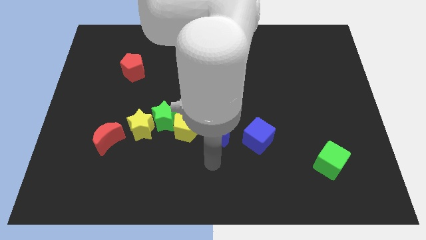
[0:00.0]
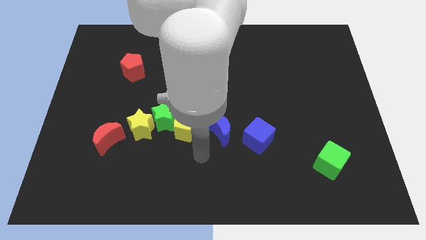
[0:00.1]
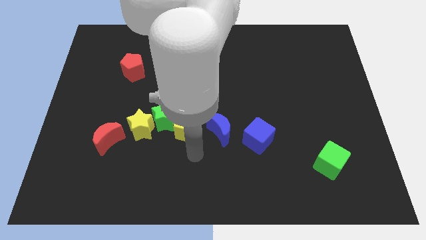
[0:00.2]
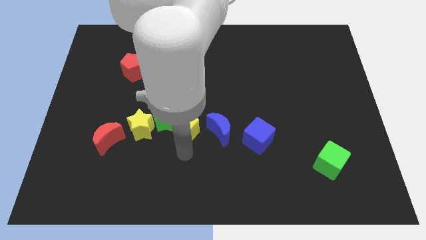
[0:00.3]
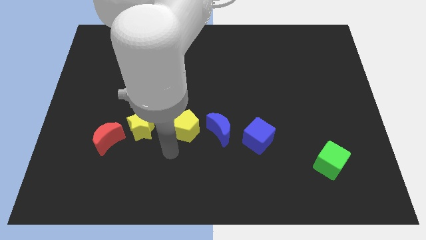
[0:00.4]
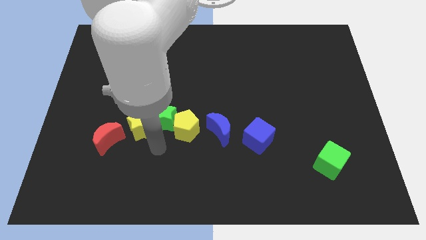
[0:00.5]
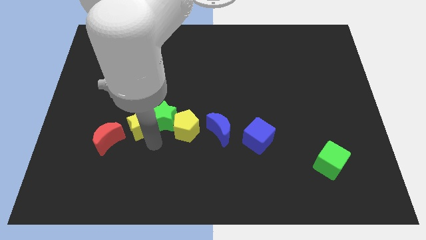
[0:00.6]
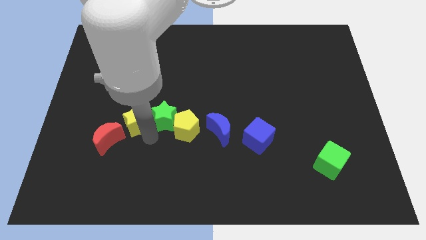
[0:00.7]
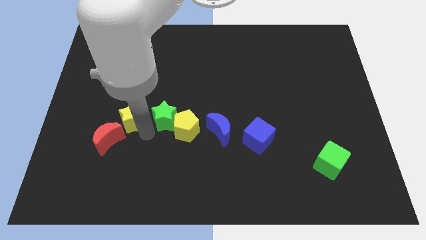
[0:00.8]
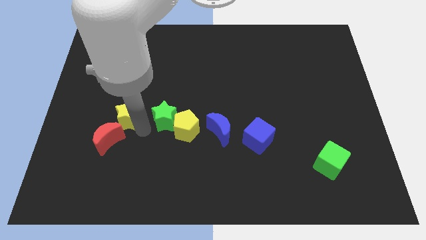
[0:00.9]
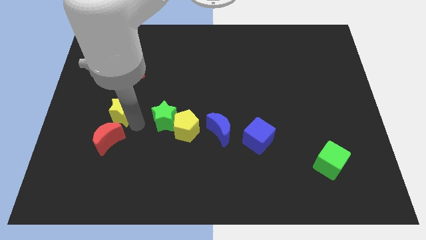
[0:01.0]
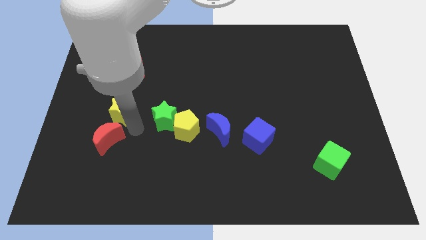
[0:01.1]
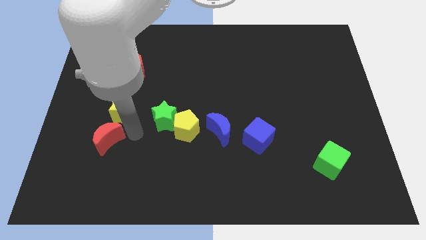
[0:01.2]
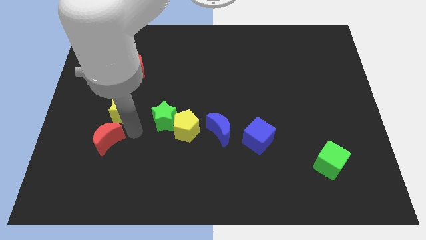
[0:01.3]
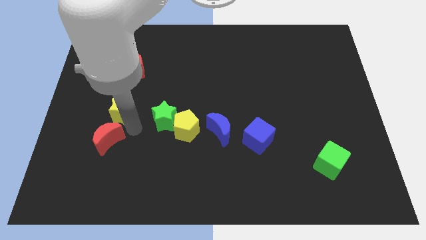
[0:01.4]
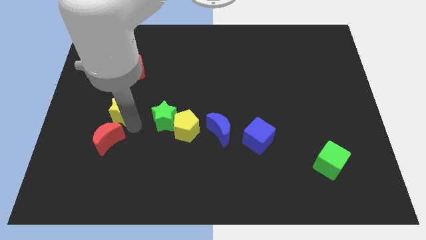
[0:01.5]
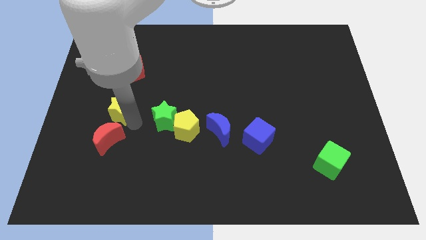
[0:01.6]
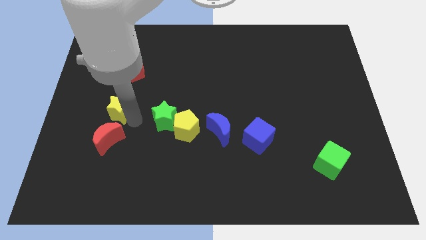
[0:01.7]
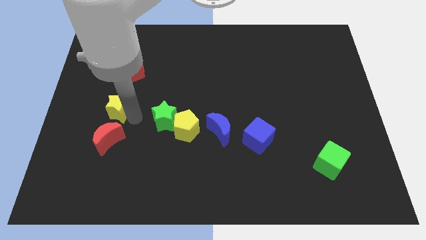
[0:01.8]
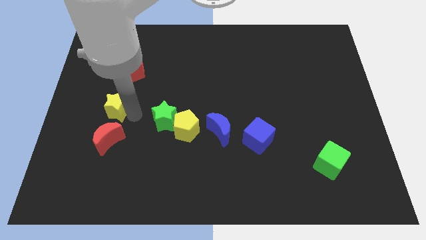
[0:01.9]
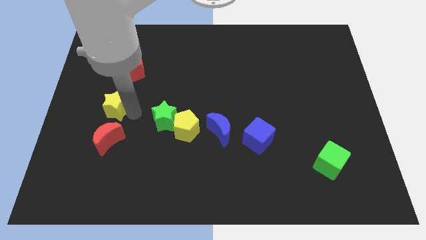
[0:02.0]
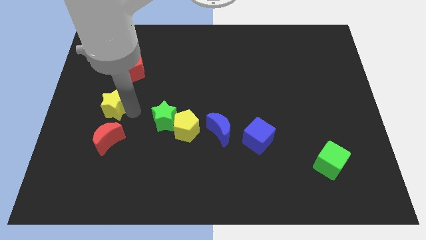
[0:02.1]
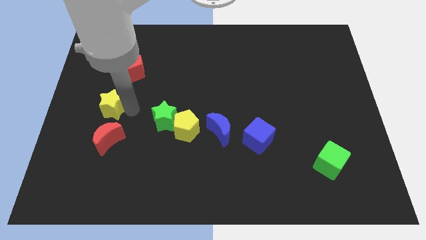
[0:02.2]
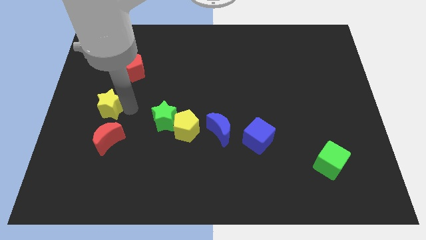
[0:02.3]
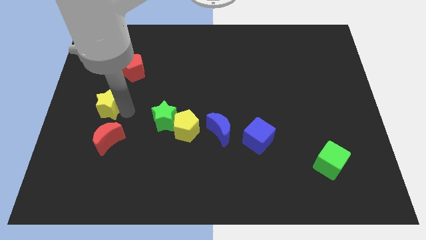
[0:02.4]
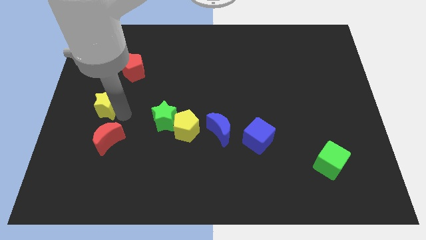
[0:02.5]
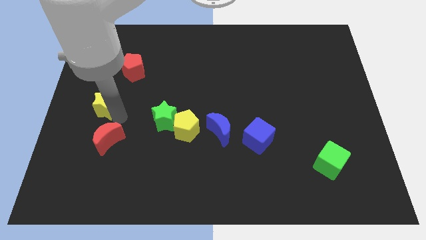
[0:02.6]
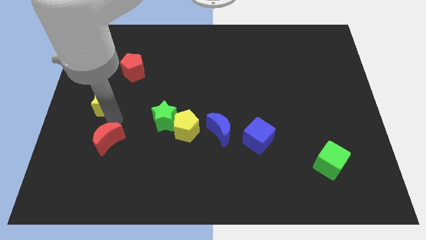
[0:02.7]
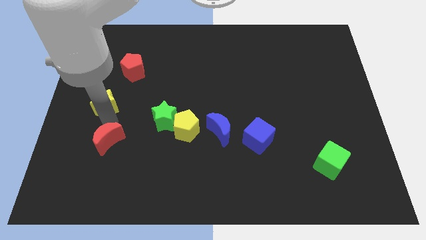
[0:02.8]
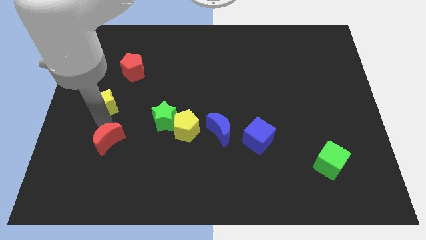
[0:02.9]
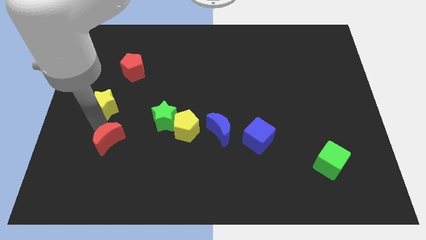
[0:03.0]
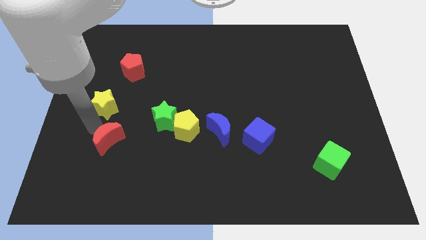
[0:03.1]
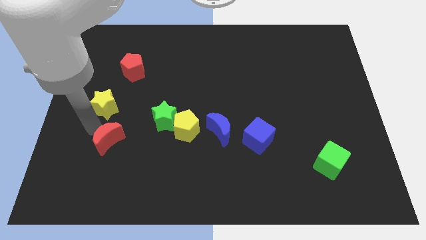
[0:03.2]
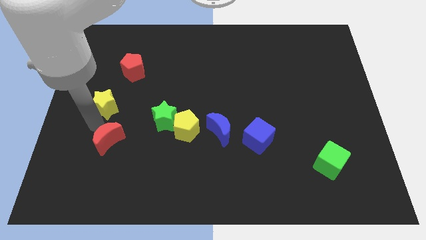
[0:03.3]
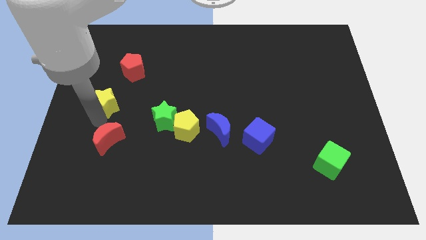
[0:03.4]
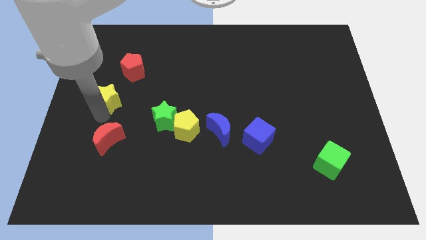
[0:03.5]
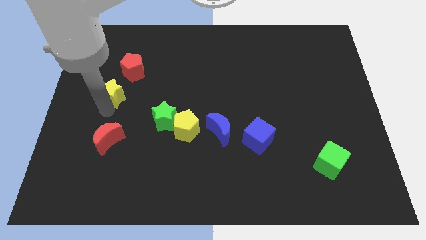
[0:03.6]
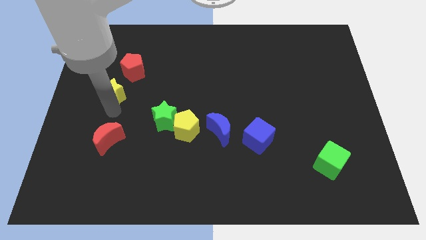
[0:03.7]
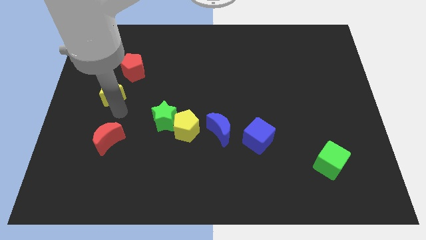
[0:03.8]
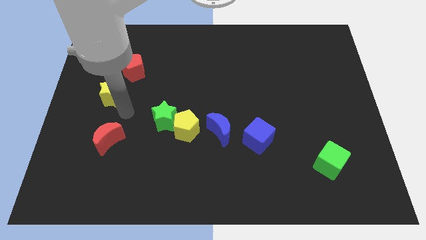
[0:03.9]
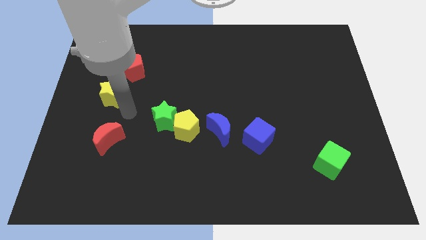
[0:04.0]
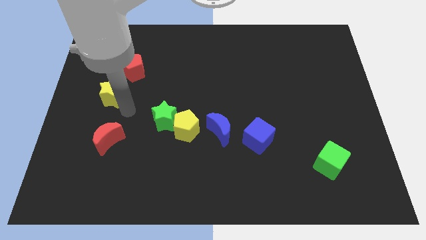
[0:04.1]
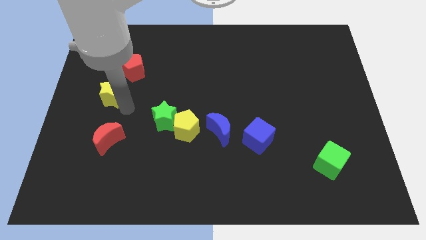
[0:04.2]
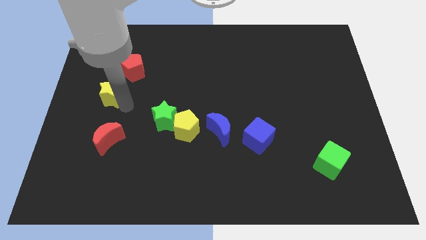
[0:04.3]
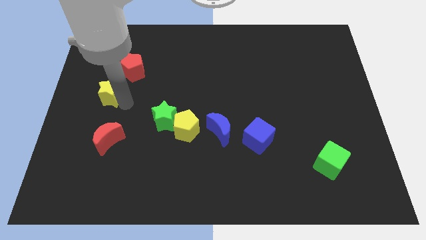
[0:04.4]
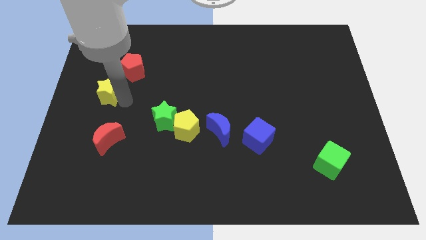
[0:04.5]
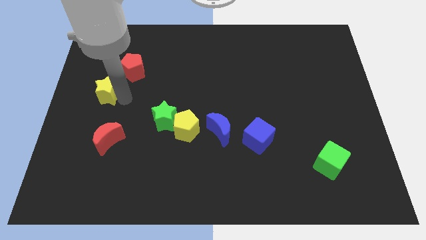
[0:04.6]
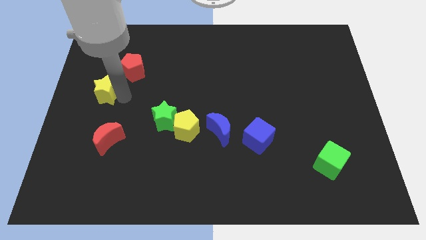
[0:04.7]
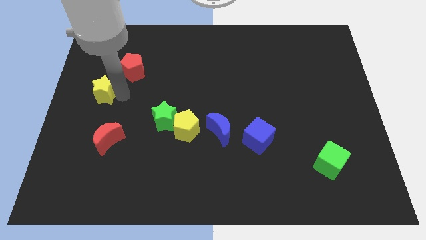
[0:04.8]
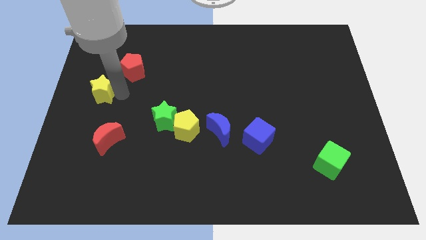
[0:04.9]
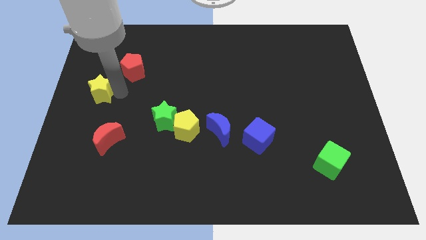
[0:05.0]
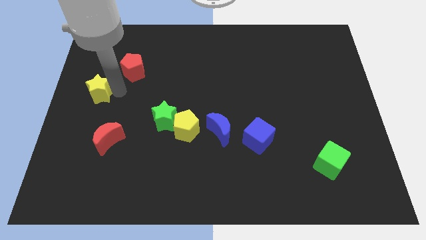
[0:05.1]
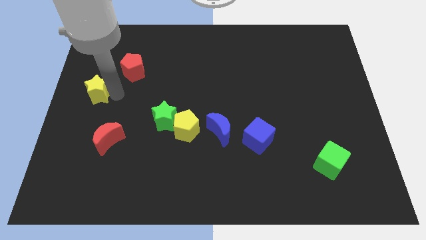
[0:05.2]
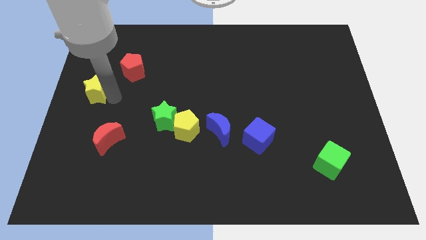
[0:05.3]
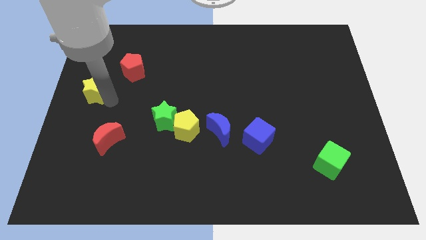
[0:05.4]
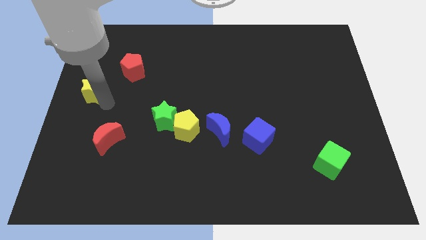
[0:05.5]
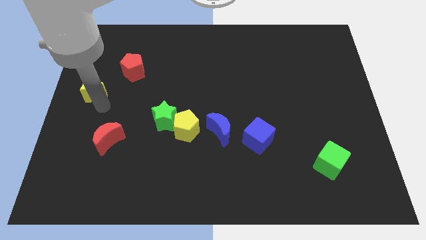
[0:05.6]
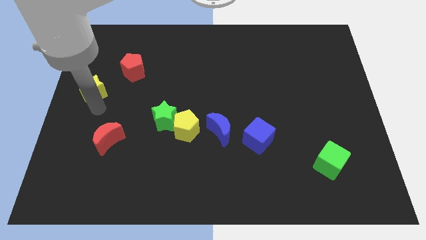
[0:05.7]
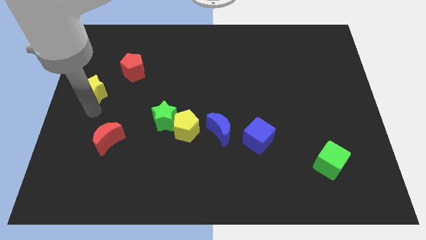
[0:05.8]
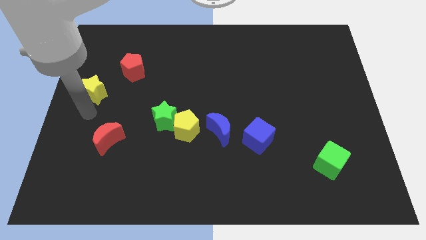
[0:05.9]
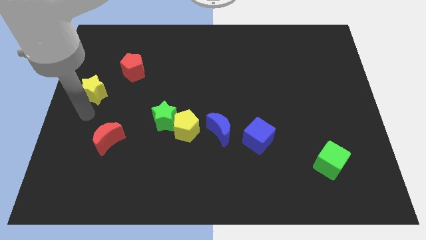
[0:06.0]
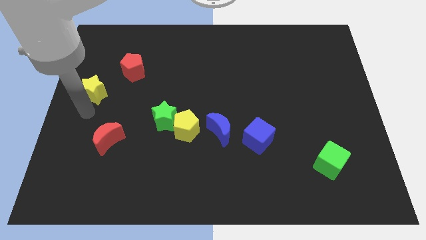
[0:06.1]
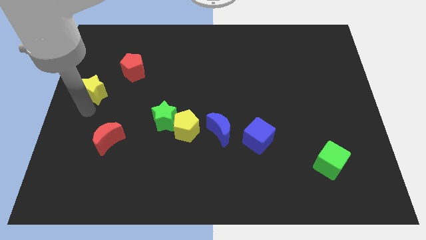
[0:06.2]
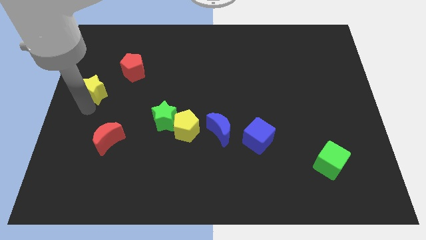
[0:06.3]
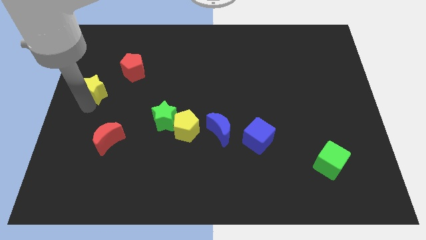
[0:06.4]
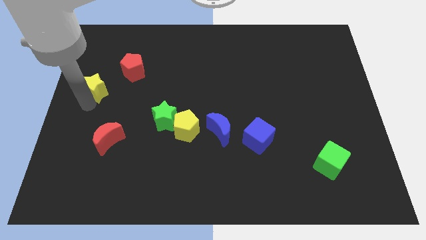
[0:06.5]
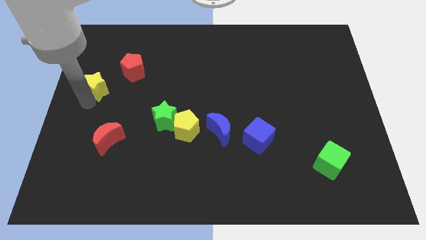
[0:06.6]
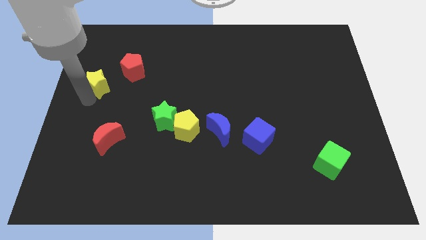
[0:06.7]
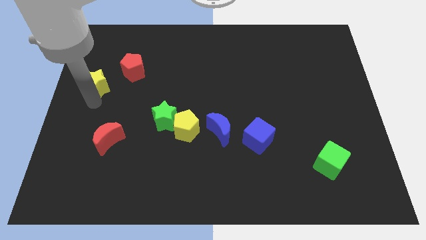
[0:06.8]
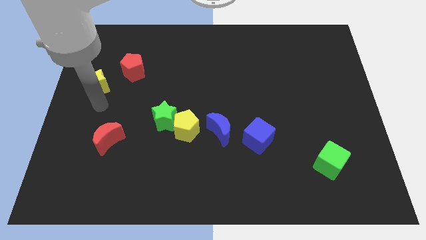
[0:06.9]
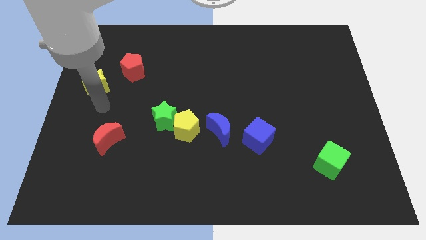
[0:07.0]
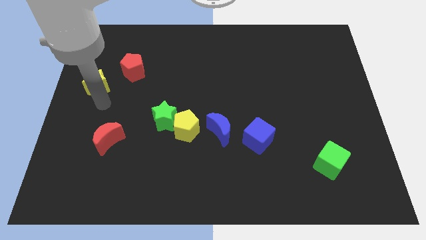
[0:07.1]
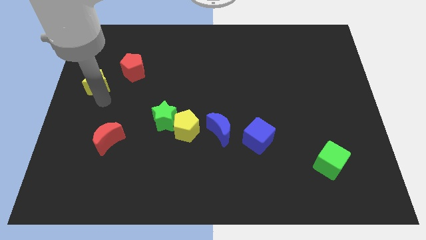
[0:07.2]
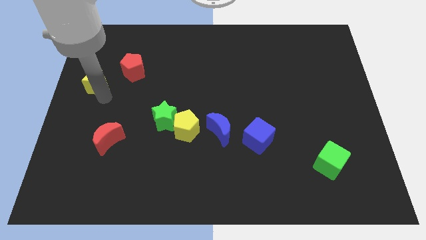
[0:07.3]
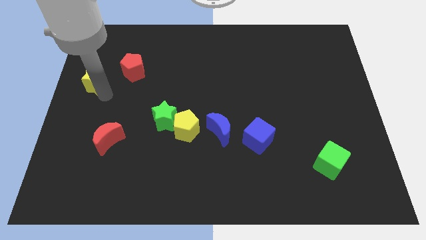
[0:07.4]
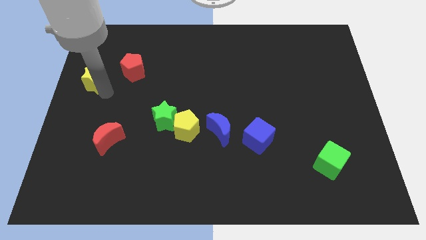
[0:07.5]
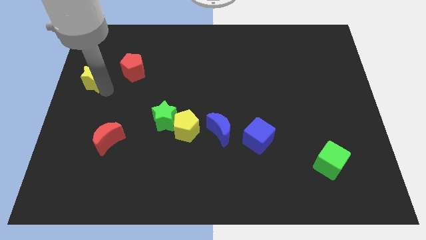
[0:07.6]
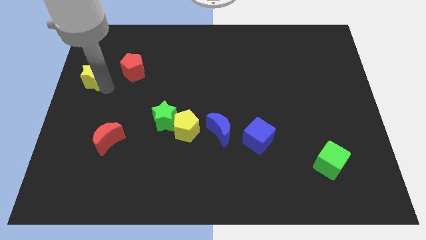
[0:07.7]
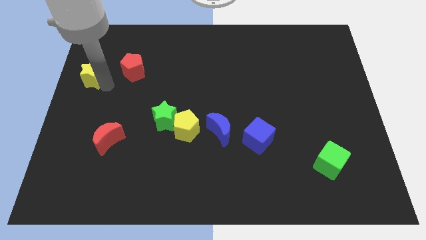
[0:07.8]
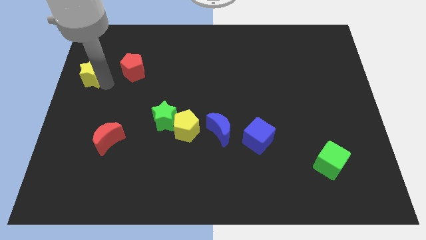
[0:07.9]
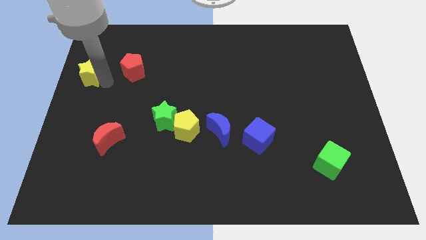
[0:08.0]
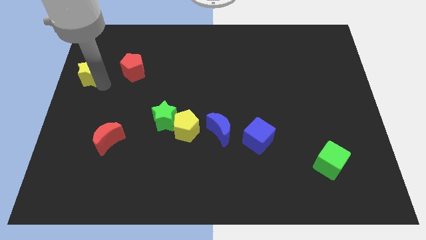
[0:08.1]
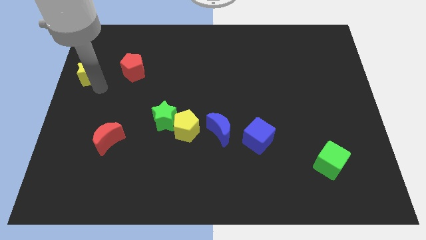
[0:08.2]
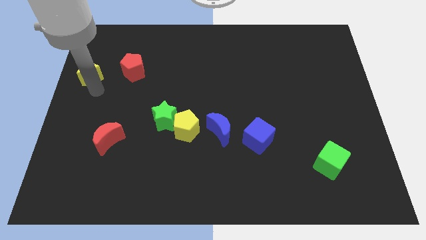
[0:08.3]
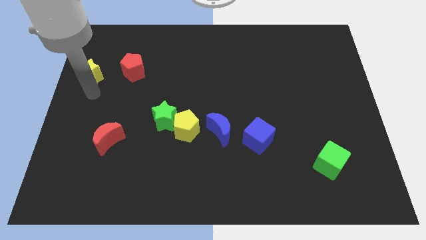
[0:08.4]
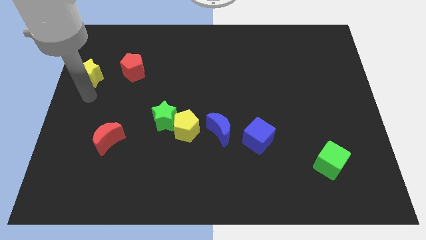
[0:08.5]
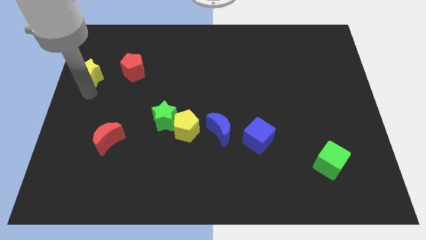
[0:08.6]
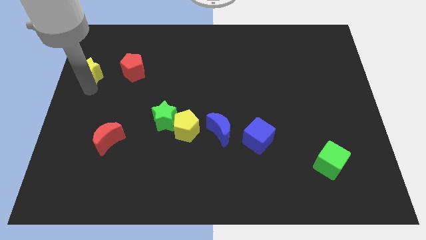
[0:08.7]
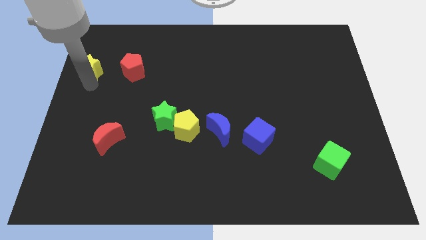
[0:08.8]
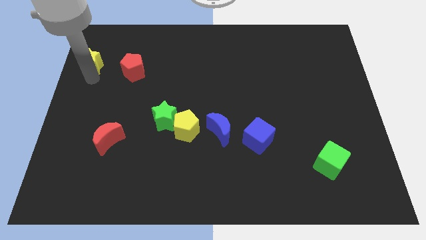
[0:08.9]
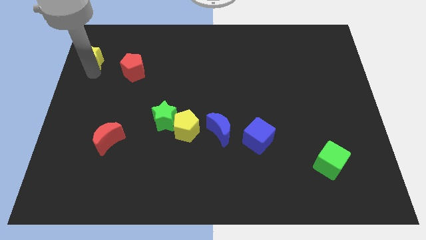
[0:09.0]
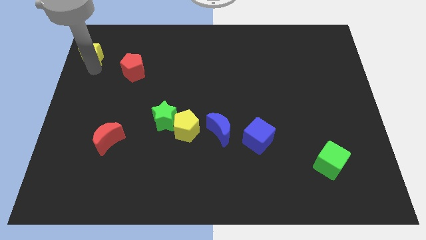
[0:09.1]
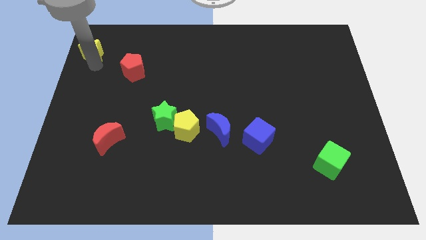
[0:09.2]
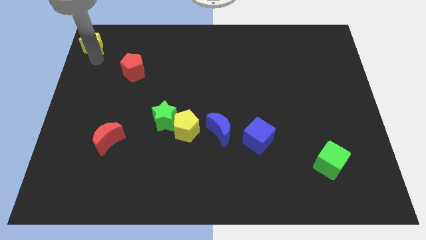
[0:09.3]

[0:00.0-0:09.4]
move the yellow star to the upper left corner
